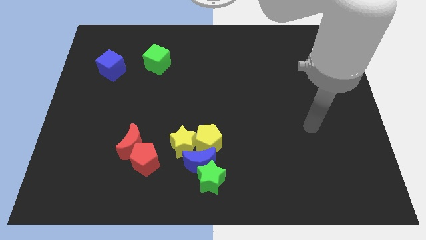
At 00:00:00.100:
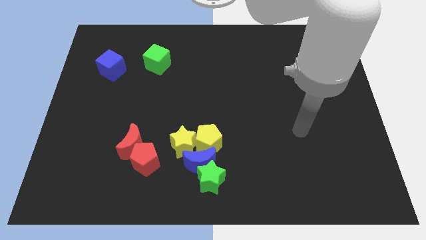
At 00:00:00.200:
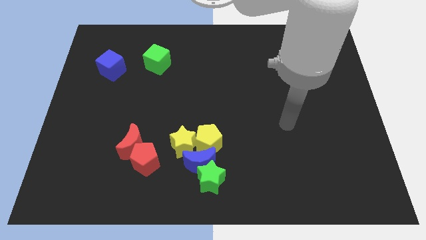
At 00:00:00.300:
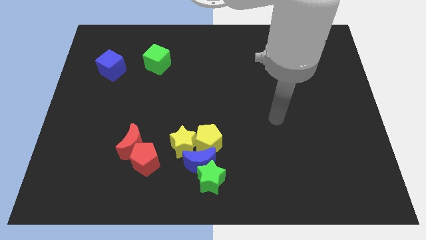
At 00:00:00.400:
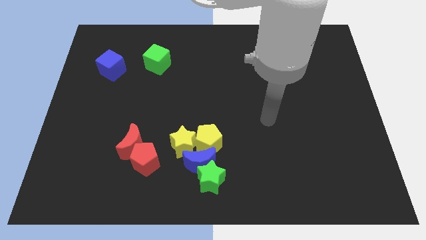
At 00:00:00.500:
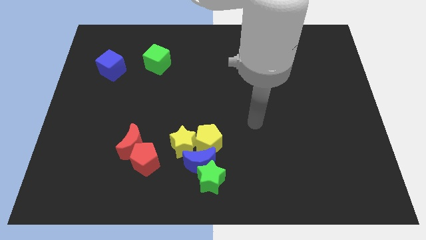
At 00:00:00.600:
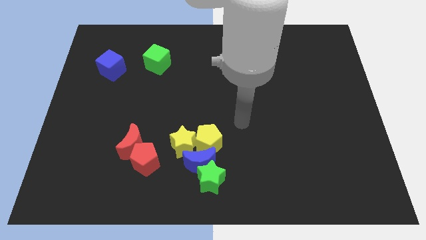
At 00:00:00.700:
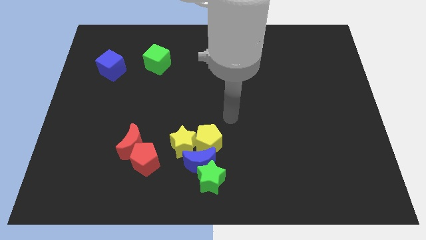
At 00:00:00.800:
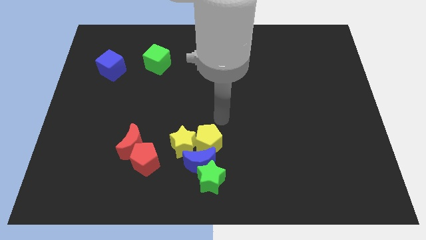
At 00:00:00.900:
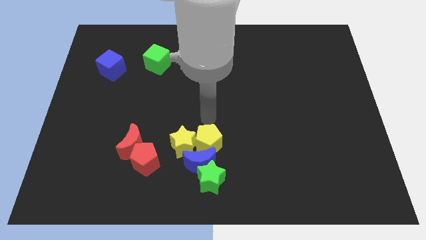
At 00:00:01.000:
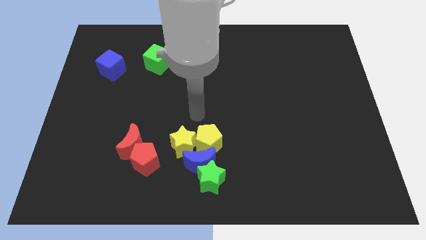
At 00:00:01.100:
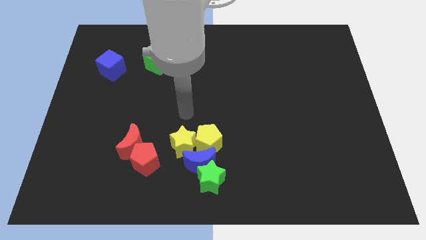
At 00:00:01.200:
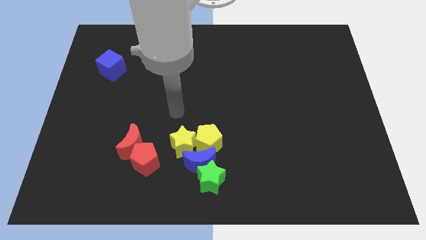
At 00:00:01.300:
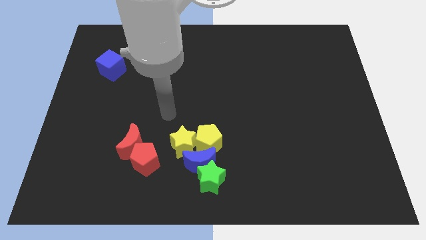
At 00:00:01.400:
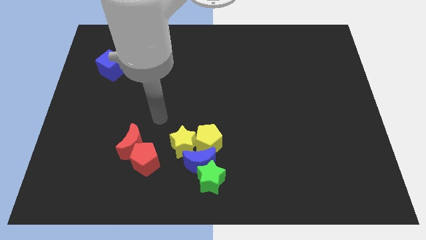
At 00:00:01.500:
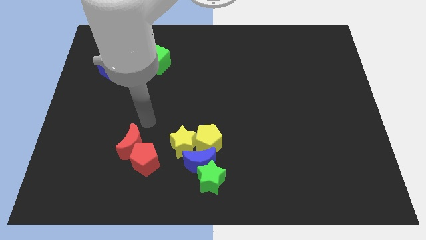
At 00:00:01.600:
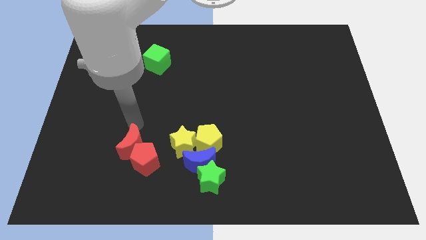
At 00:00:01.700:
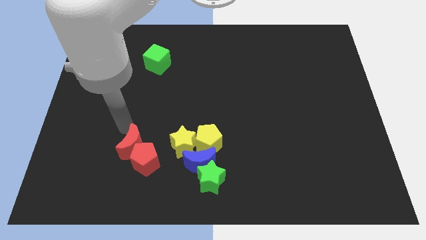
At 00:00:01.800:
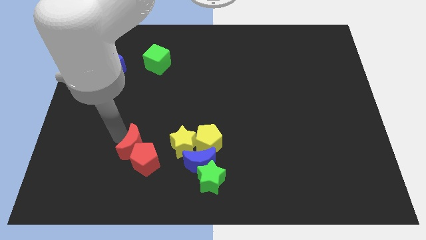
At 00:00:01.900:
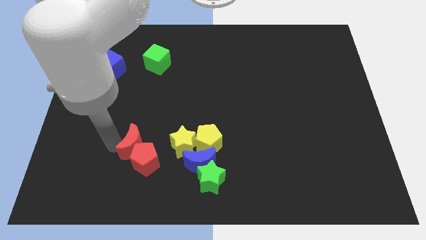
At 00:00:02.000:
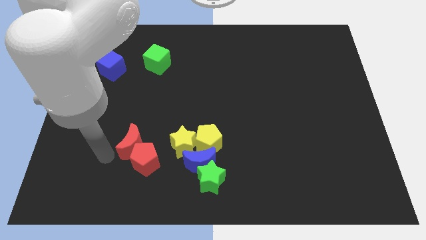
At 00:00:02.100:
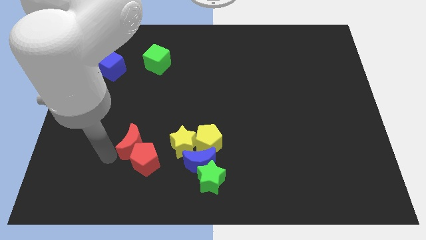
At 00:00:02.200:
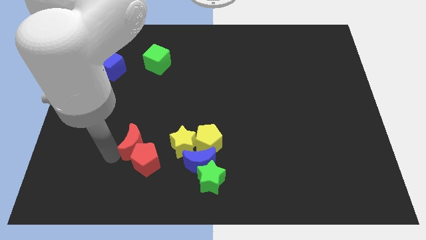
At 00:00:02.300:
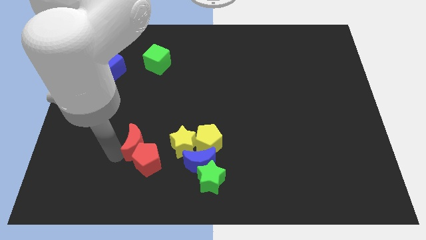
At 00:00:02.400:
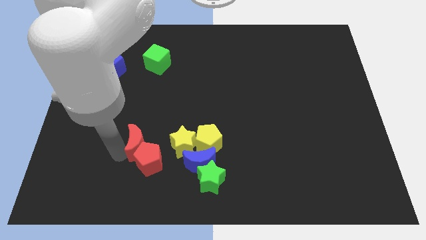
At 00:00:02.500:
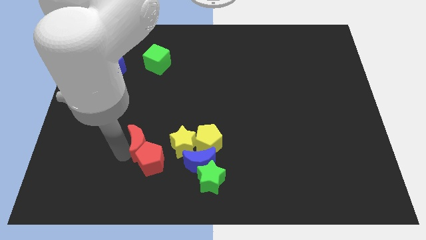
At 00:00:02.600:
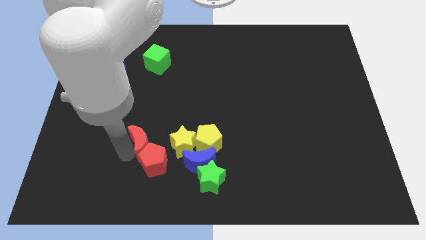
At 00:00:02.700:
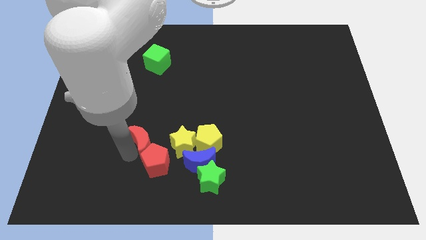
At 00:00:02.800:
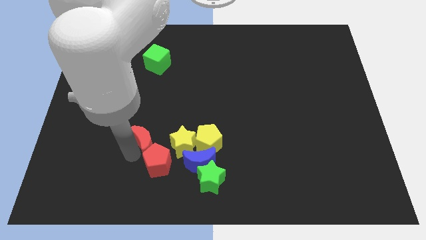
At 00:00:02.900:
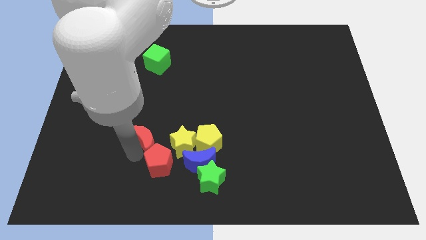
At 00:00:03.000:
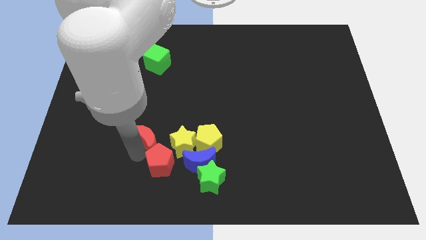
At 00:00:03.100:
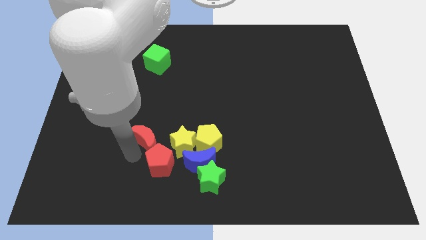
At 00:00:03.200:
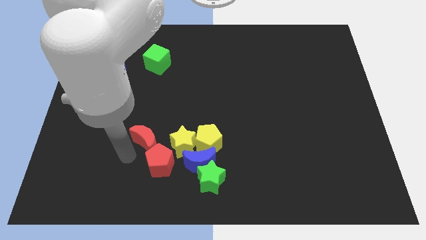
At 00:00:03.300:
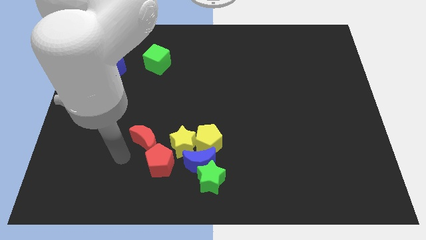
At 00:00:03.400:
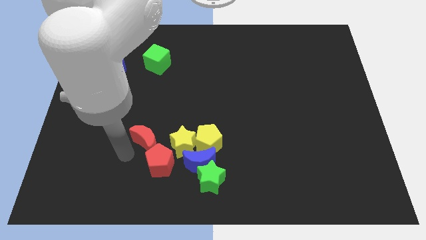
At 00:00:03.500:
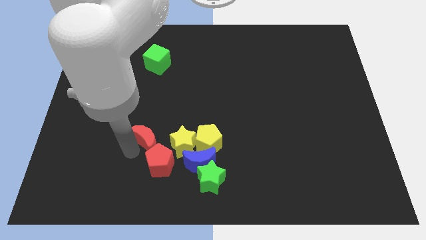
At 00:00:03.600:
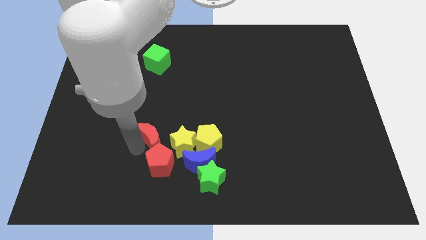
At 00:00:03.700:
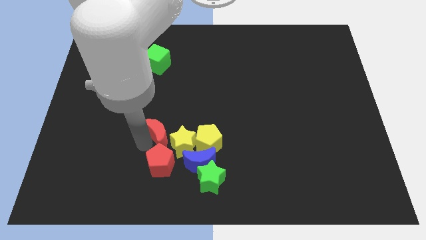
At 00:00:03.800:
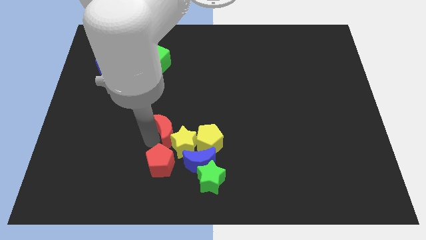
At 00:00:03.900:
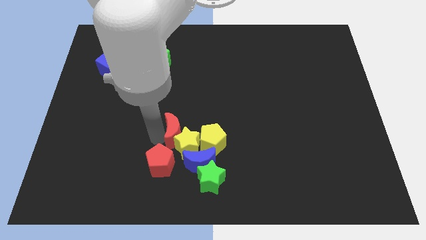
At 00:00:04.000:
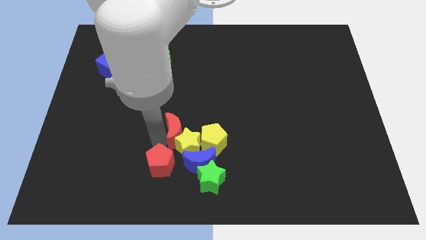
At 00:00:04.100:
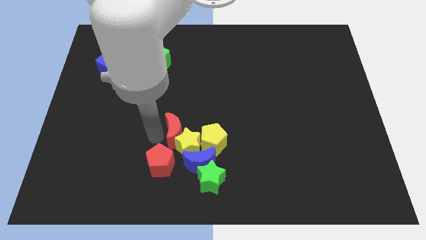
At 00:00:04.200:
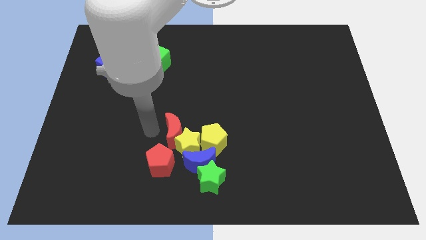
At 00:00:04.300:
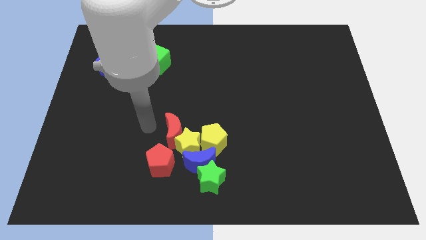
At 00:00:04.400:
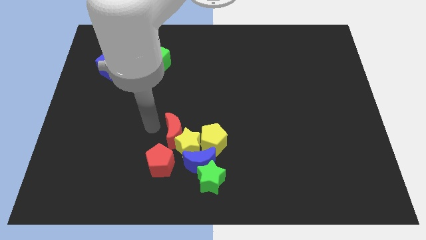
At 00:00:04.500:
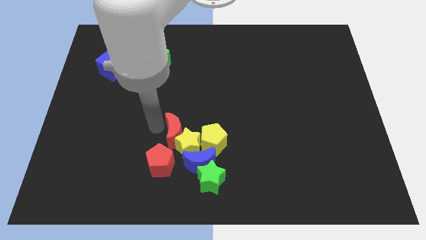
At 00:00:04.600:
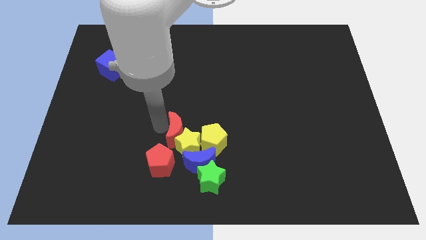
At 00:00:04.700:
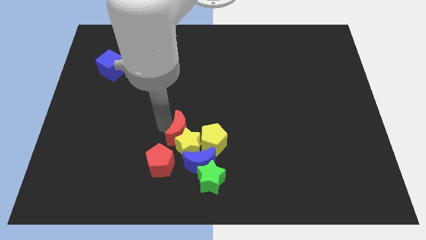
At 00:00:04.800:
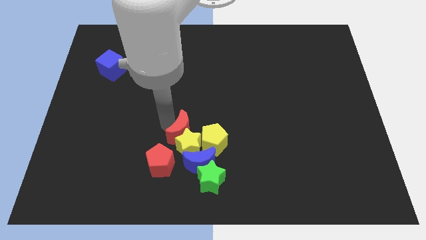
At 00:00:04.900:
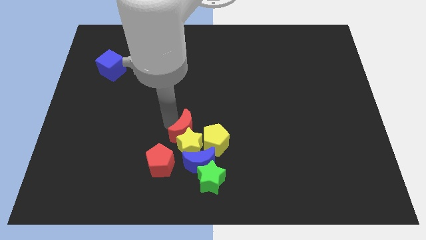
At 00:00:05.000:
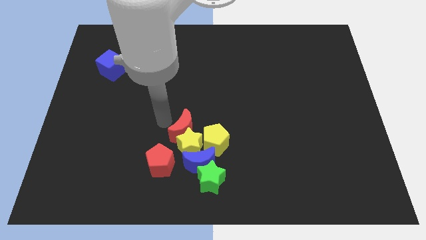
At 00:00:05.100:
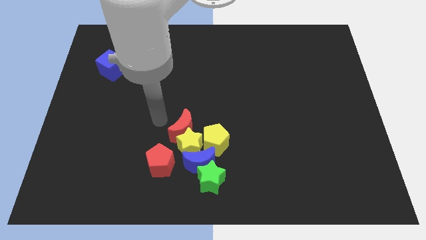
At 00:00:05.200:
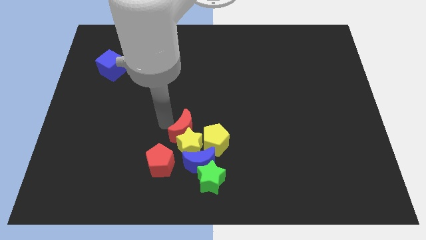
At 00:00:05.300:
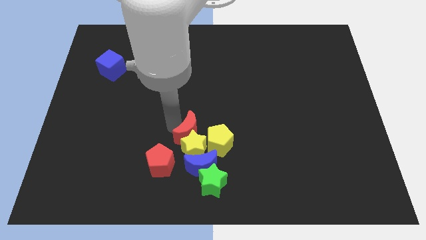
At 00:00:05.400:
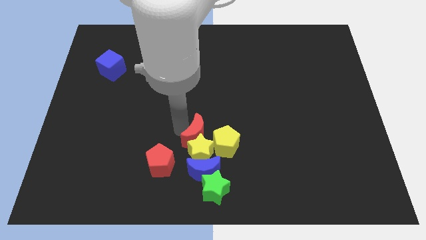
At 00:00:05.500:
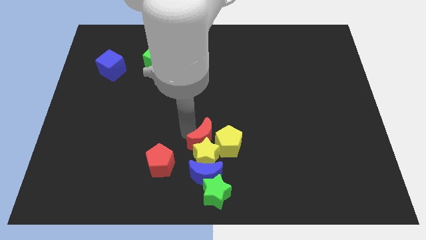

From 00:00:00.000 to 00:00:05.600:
slide the red moon to the yellow pentagon

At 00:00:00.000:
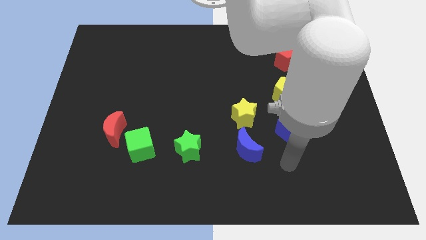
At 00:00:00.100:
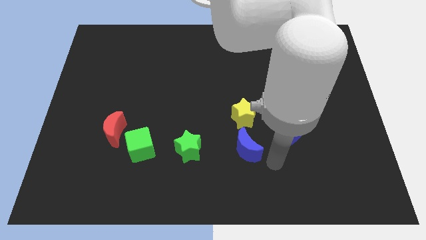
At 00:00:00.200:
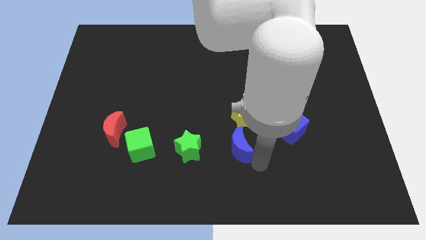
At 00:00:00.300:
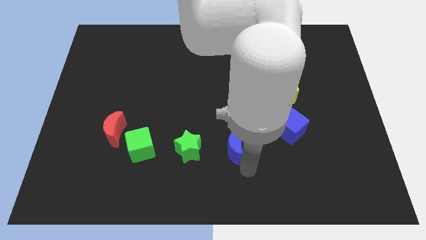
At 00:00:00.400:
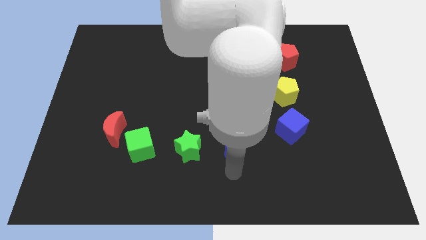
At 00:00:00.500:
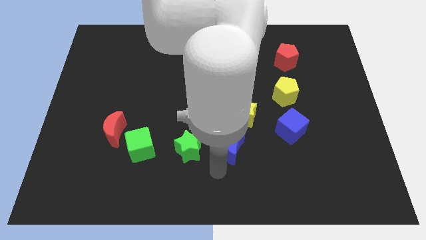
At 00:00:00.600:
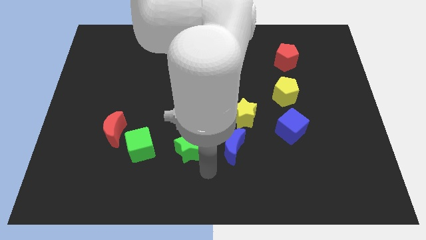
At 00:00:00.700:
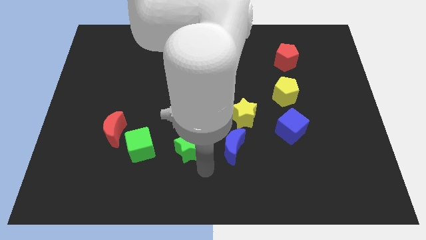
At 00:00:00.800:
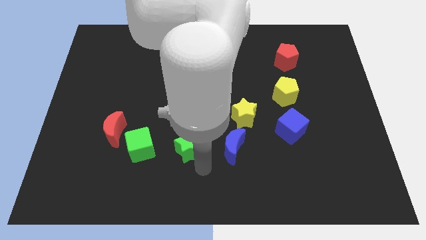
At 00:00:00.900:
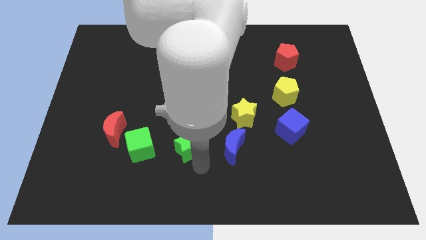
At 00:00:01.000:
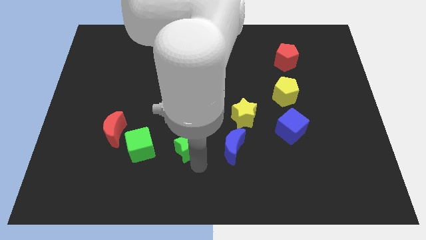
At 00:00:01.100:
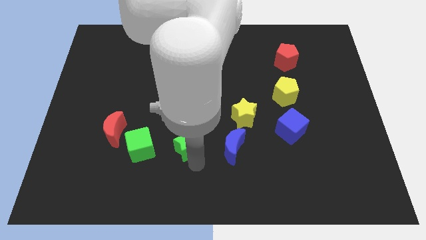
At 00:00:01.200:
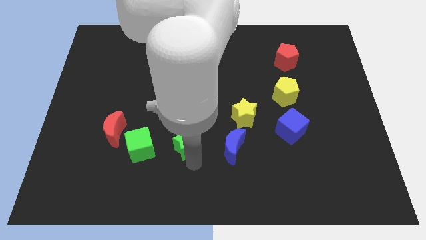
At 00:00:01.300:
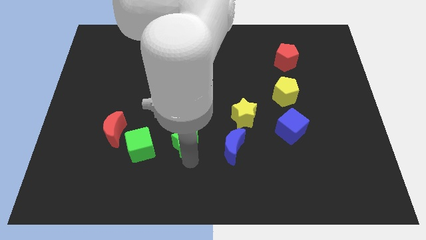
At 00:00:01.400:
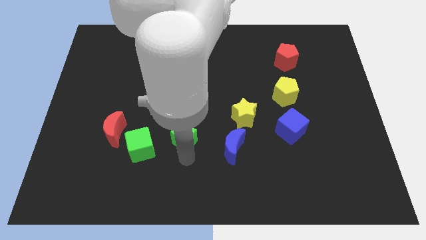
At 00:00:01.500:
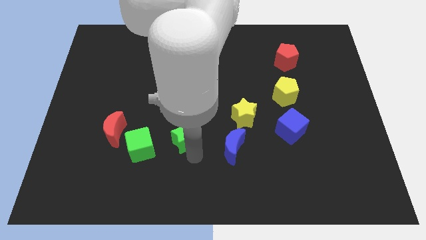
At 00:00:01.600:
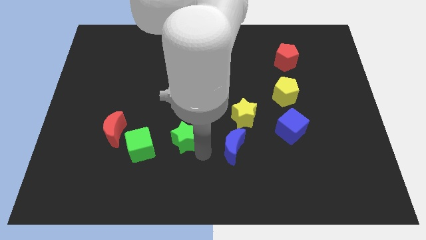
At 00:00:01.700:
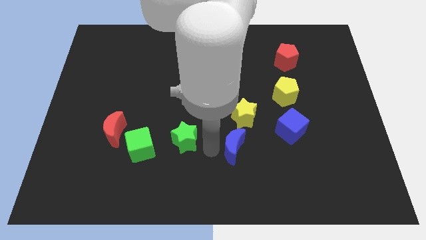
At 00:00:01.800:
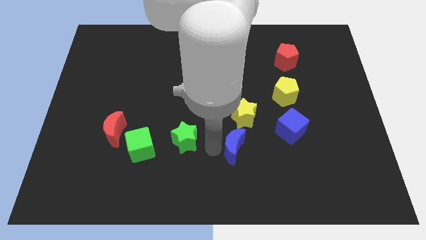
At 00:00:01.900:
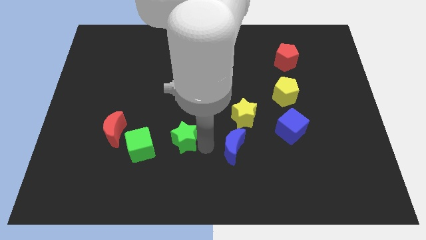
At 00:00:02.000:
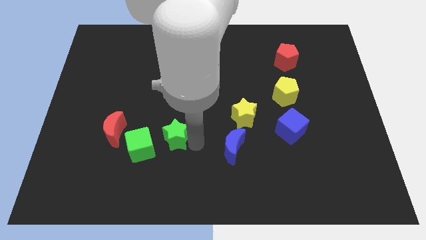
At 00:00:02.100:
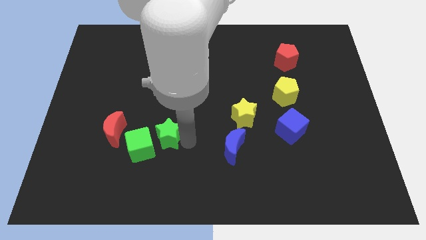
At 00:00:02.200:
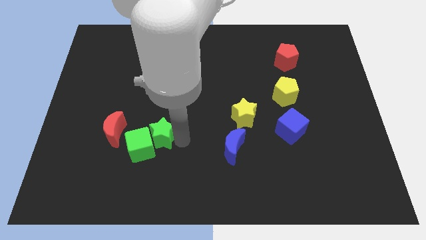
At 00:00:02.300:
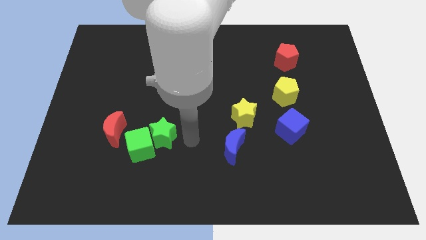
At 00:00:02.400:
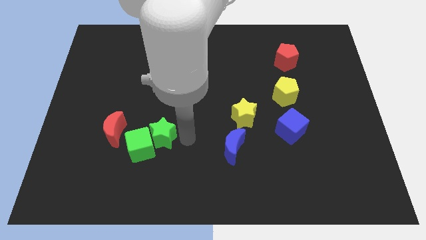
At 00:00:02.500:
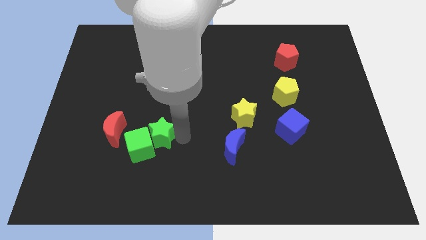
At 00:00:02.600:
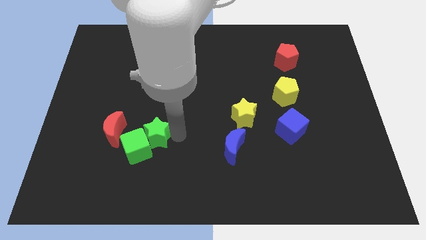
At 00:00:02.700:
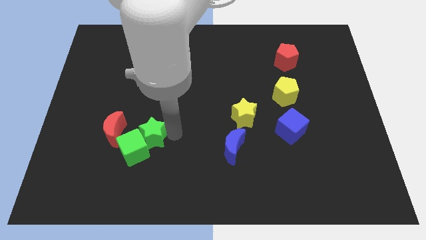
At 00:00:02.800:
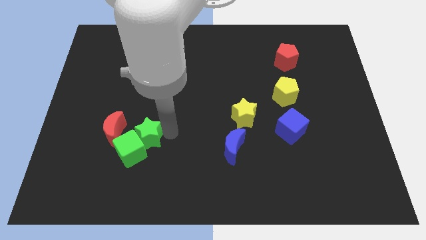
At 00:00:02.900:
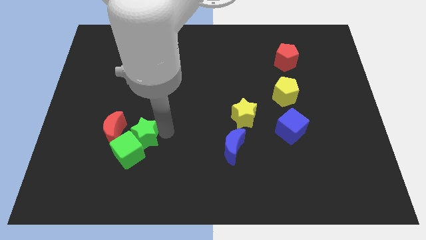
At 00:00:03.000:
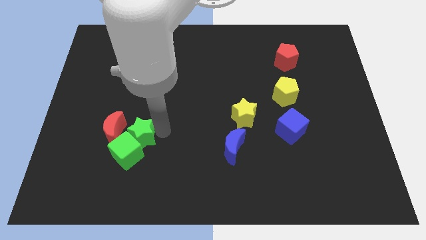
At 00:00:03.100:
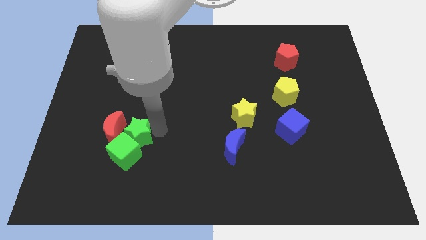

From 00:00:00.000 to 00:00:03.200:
slide the green star next to the red moon
